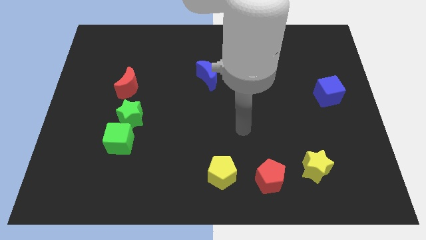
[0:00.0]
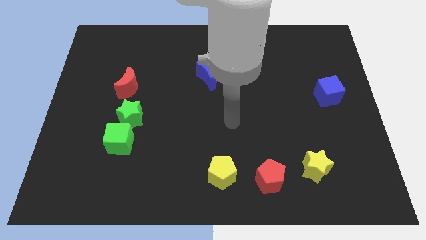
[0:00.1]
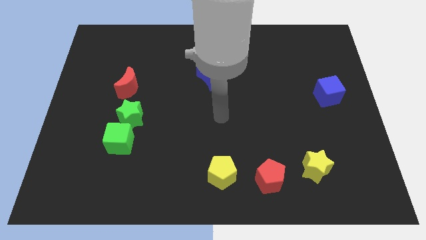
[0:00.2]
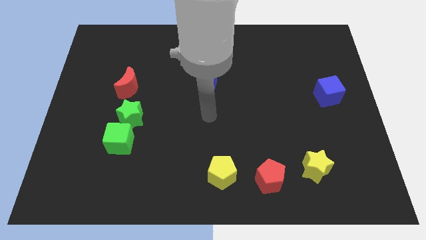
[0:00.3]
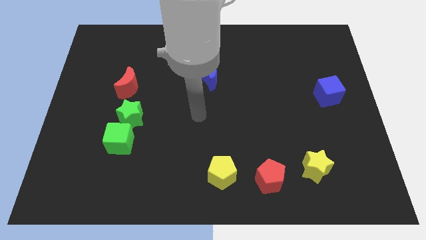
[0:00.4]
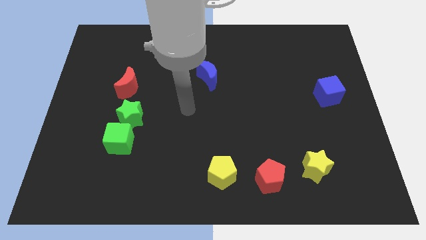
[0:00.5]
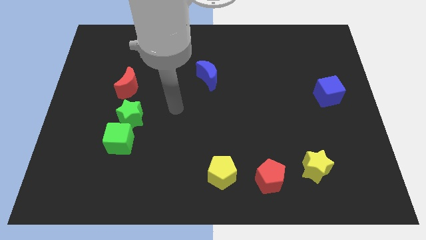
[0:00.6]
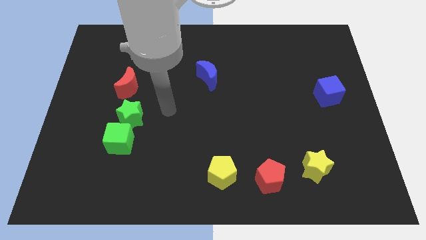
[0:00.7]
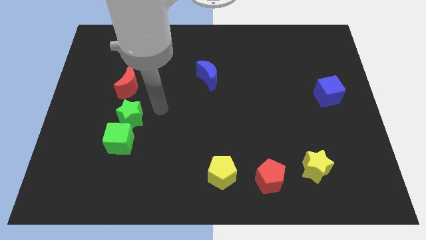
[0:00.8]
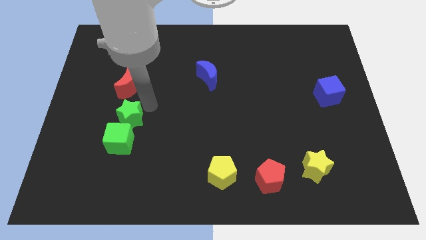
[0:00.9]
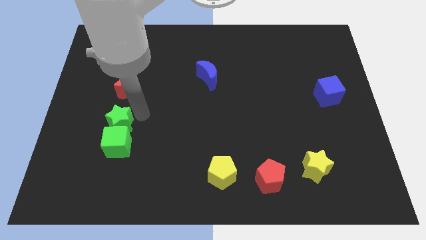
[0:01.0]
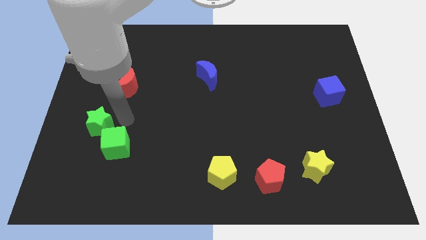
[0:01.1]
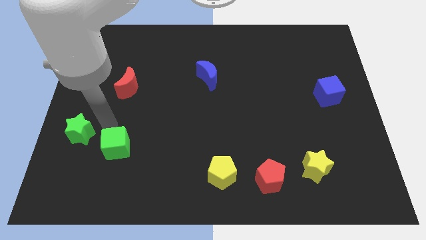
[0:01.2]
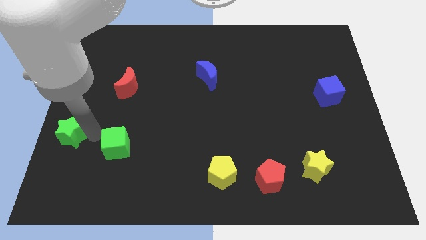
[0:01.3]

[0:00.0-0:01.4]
move the green cube away from the green star

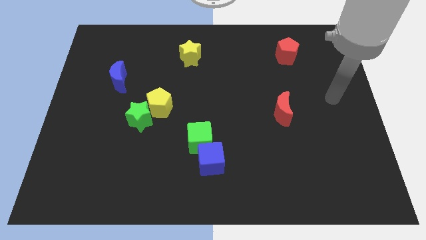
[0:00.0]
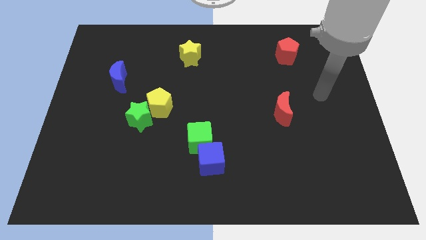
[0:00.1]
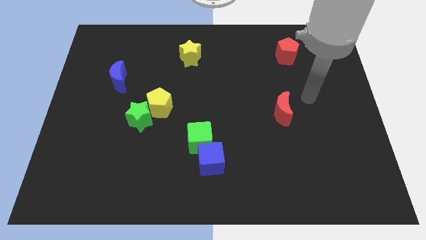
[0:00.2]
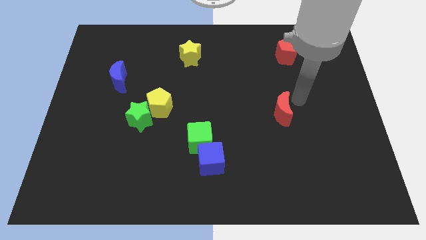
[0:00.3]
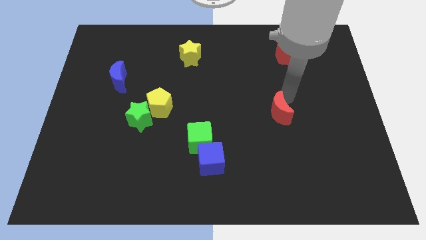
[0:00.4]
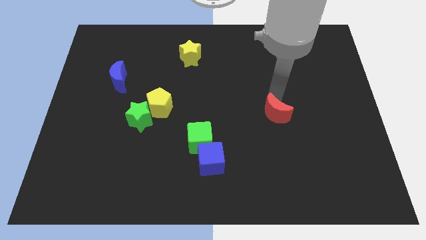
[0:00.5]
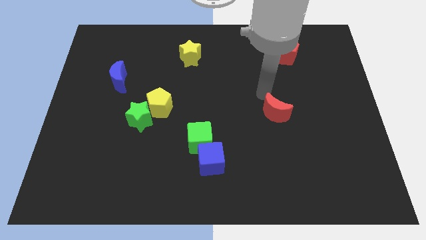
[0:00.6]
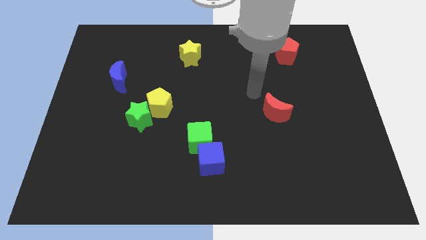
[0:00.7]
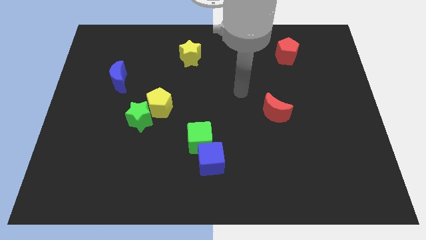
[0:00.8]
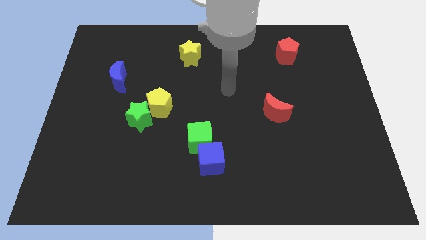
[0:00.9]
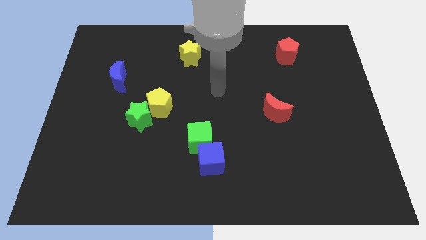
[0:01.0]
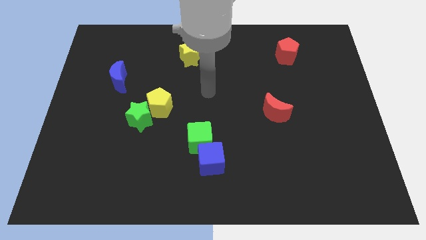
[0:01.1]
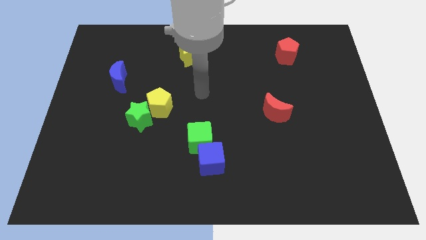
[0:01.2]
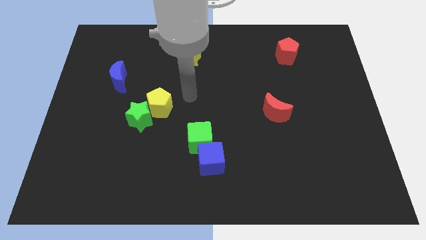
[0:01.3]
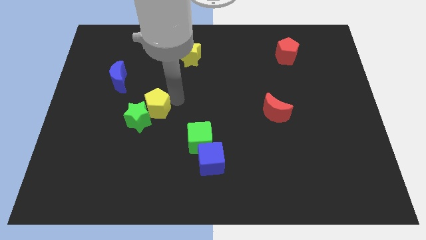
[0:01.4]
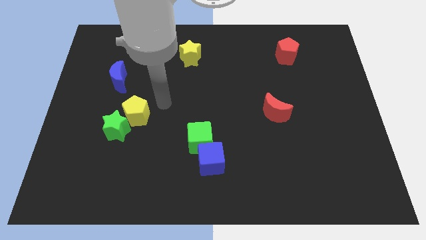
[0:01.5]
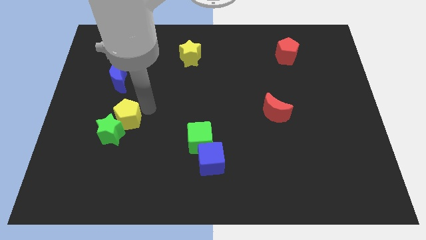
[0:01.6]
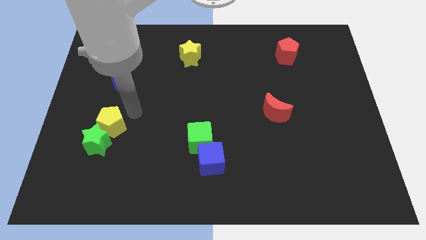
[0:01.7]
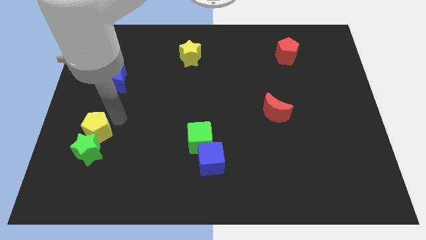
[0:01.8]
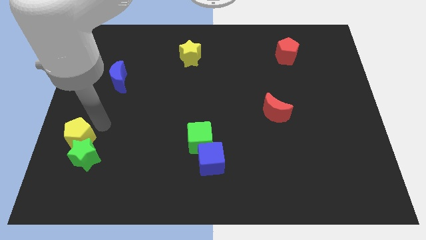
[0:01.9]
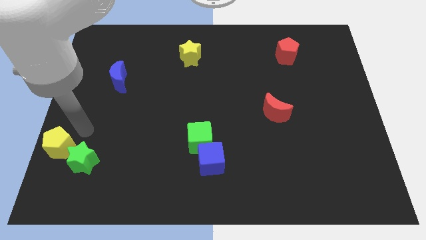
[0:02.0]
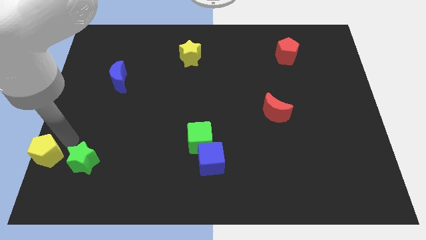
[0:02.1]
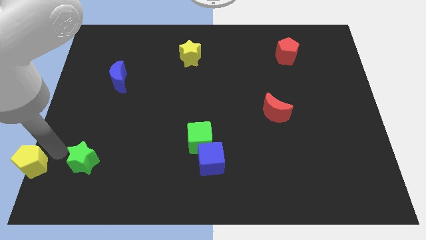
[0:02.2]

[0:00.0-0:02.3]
separate the green star from the yellow pentagon

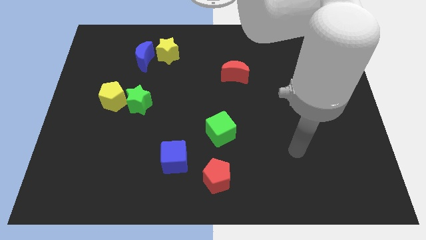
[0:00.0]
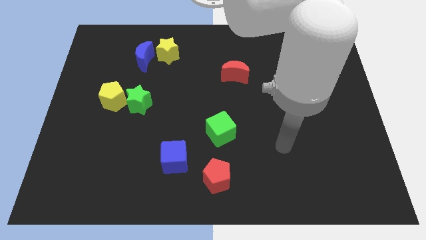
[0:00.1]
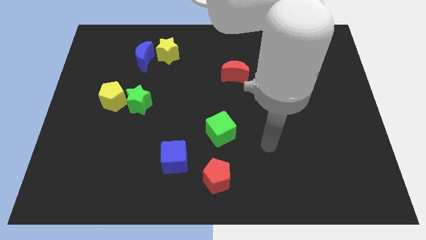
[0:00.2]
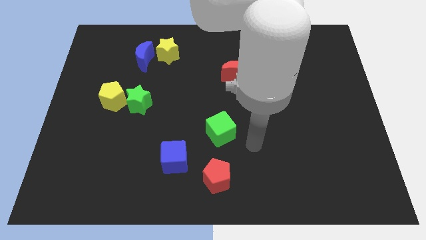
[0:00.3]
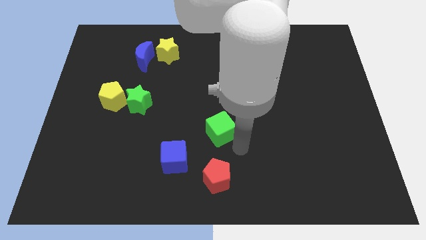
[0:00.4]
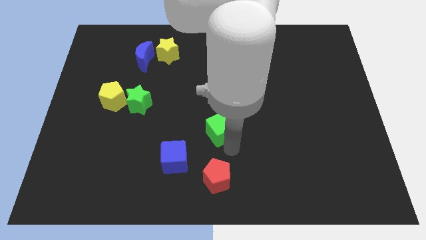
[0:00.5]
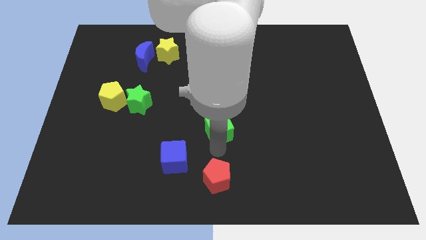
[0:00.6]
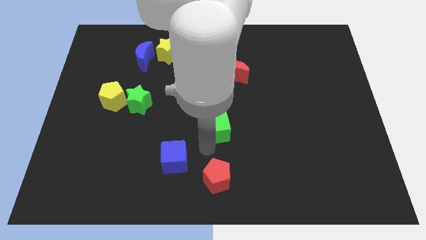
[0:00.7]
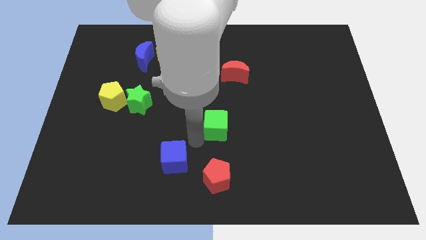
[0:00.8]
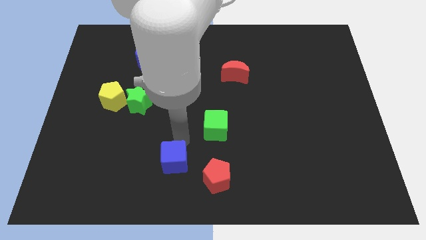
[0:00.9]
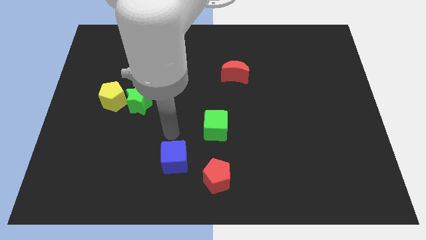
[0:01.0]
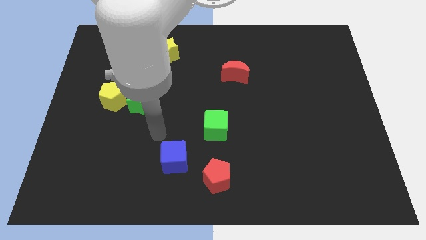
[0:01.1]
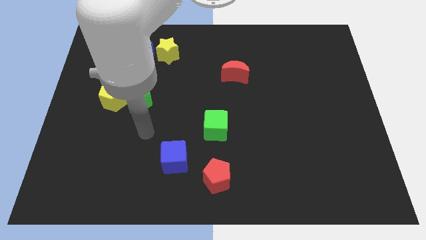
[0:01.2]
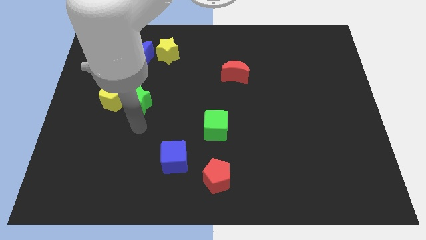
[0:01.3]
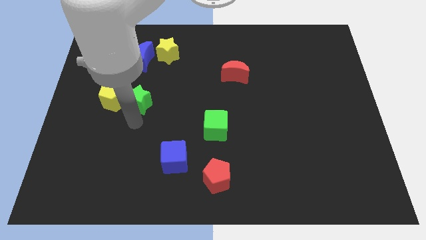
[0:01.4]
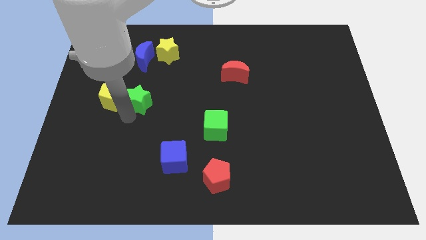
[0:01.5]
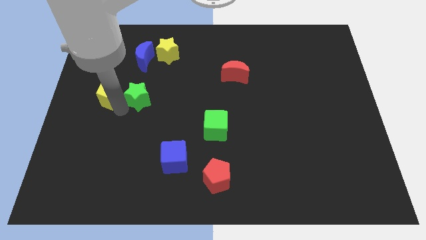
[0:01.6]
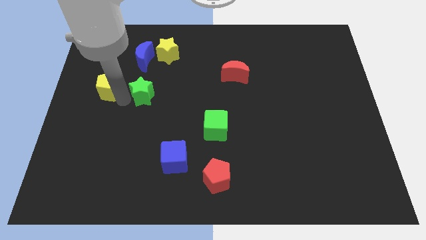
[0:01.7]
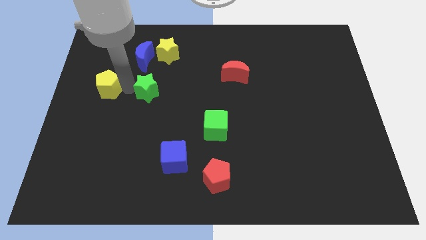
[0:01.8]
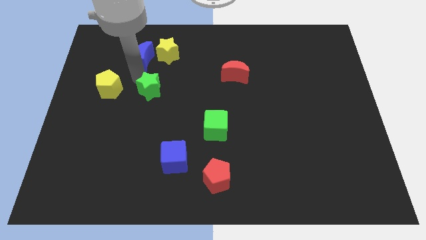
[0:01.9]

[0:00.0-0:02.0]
move the green star away from the yellow pentagon

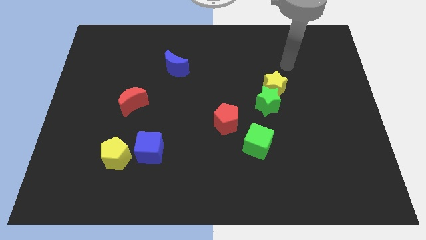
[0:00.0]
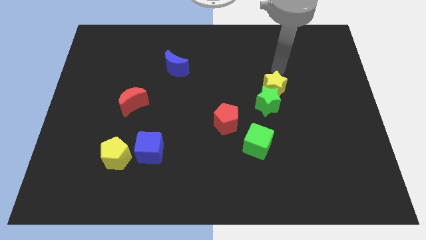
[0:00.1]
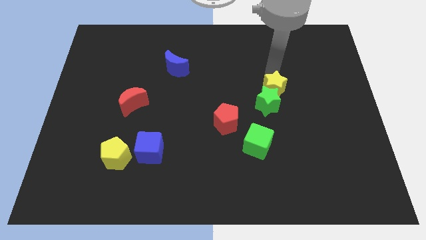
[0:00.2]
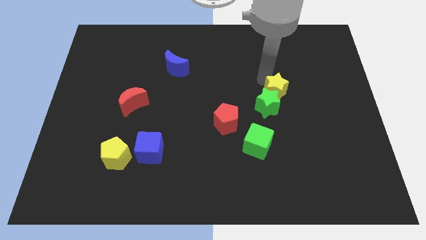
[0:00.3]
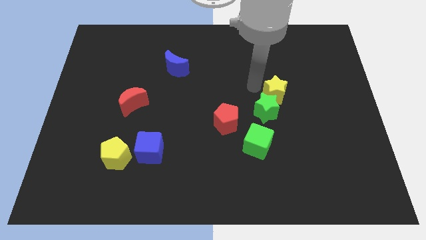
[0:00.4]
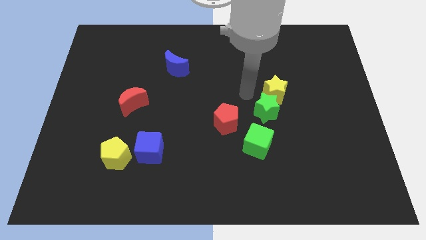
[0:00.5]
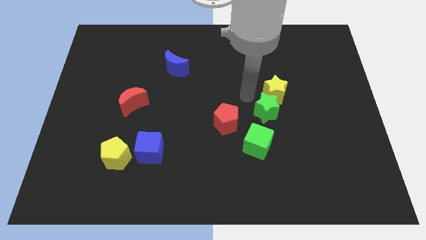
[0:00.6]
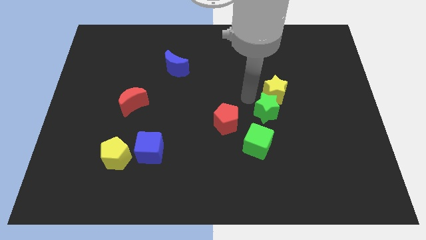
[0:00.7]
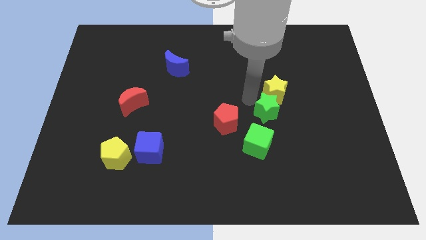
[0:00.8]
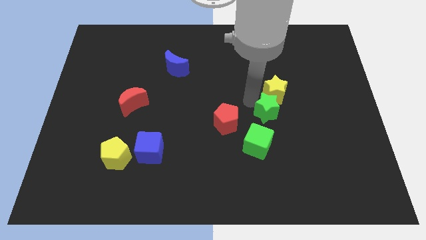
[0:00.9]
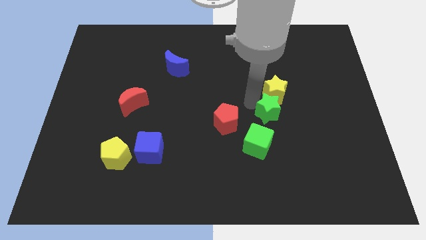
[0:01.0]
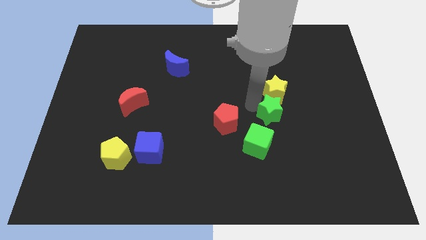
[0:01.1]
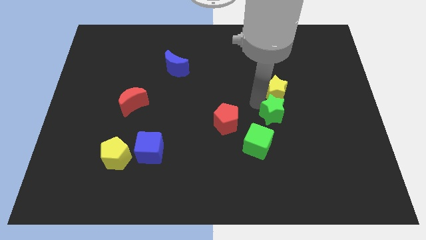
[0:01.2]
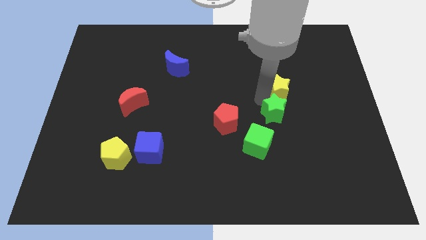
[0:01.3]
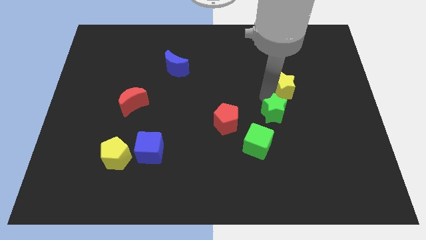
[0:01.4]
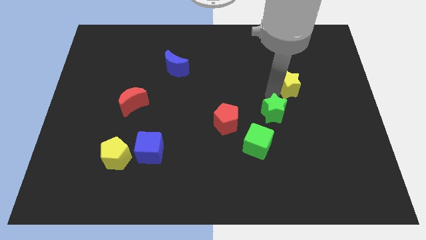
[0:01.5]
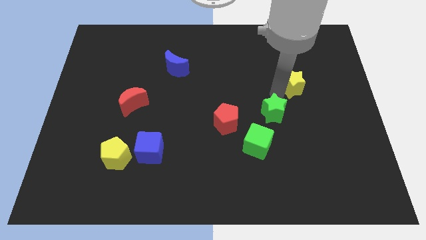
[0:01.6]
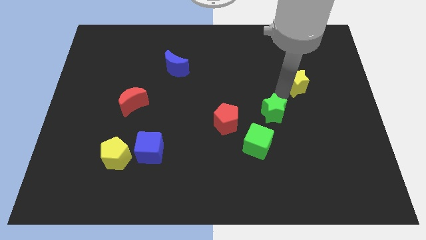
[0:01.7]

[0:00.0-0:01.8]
separate the green star from the yellow star

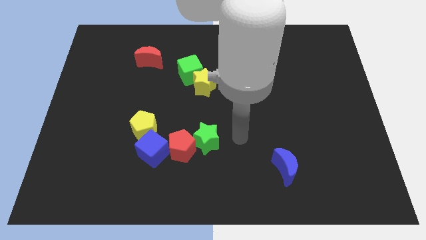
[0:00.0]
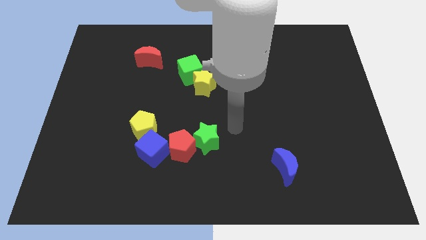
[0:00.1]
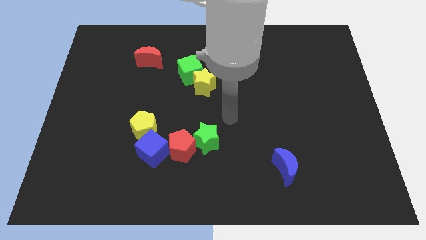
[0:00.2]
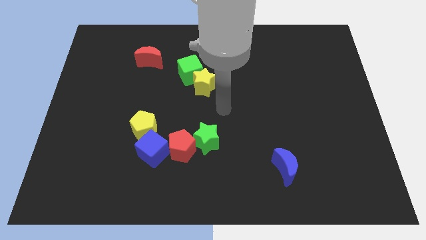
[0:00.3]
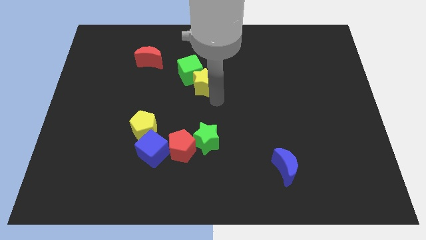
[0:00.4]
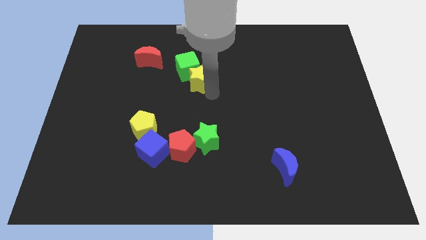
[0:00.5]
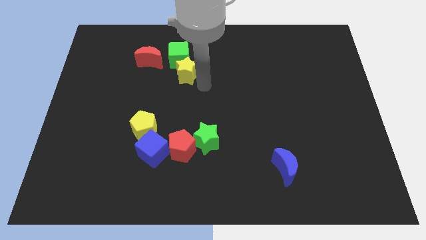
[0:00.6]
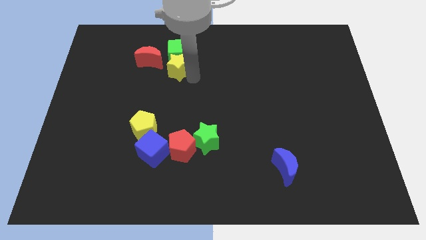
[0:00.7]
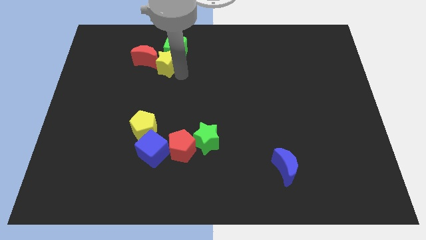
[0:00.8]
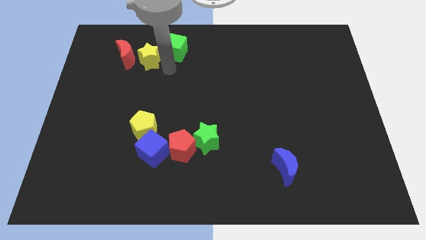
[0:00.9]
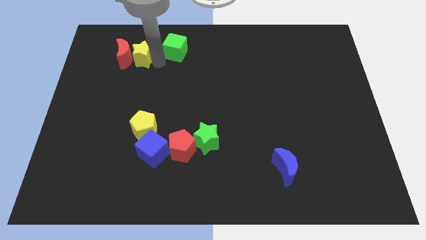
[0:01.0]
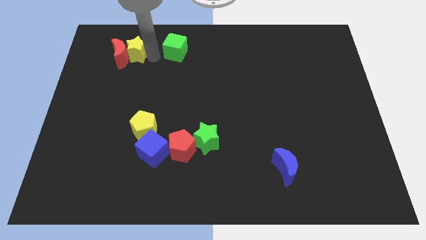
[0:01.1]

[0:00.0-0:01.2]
move the green cube away from the yellow star

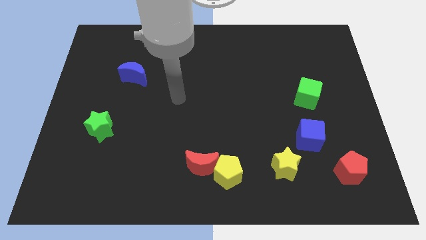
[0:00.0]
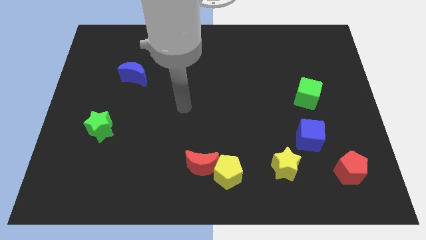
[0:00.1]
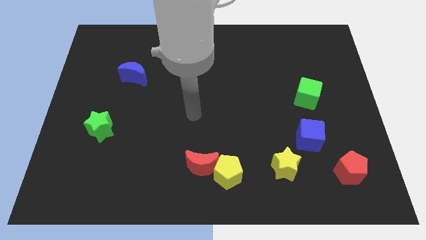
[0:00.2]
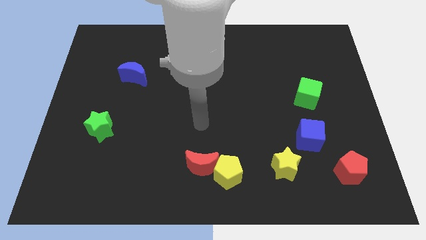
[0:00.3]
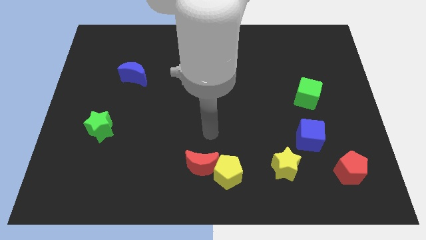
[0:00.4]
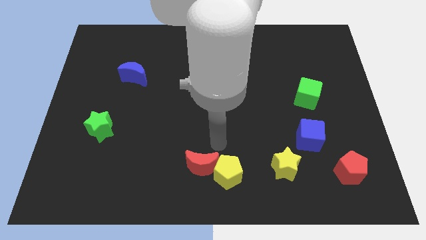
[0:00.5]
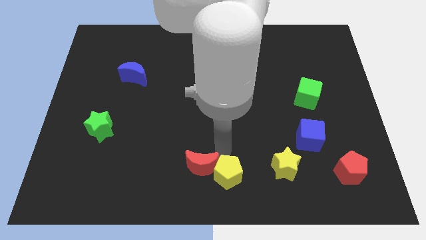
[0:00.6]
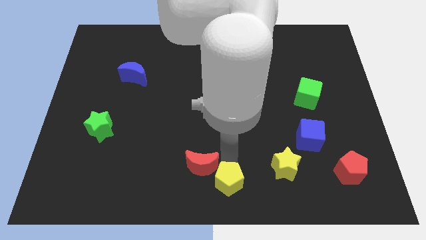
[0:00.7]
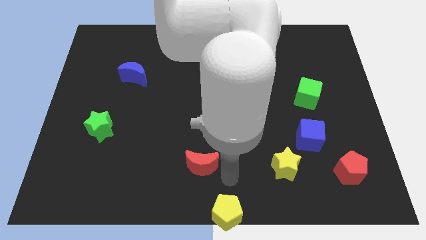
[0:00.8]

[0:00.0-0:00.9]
separate the red moon from the yellow pentagon
